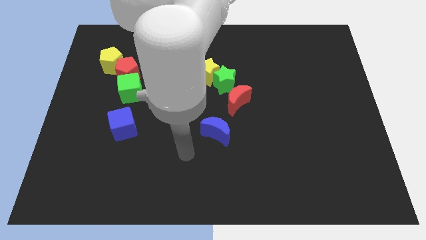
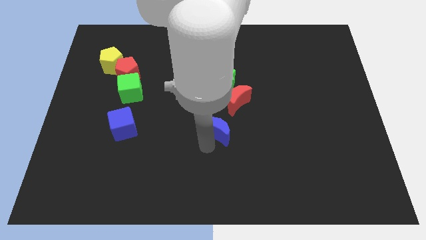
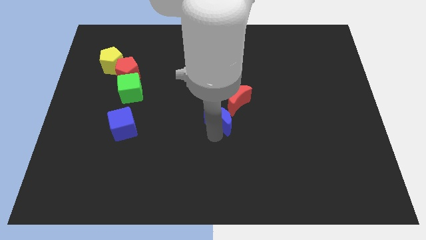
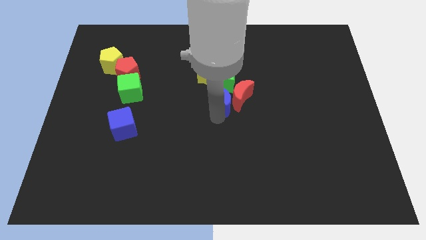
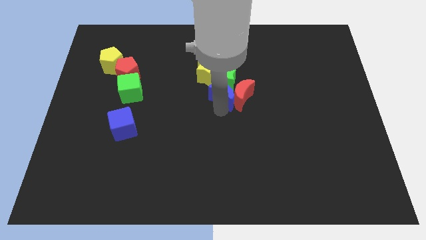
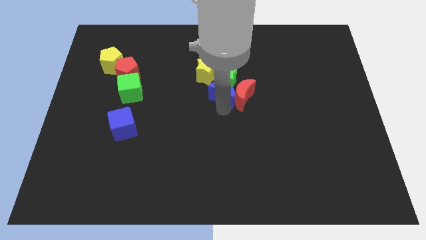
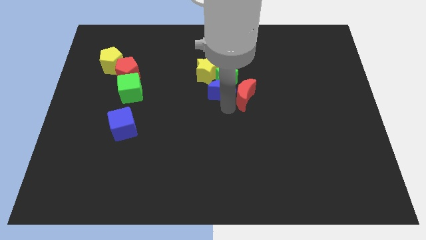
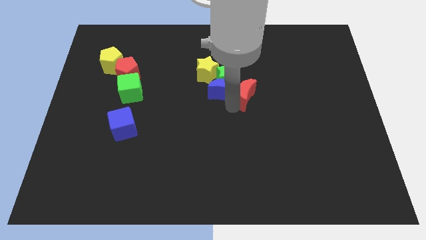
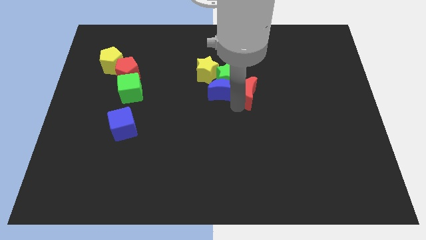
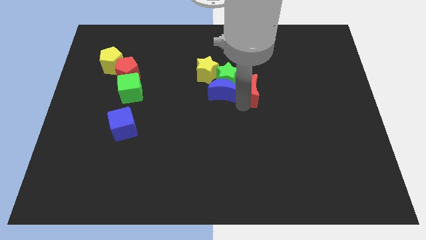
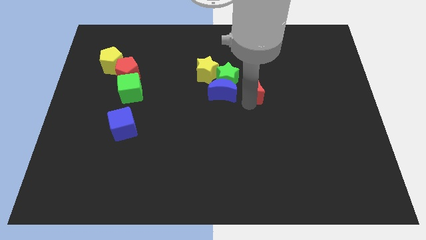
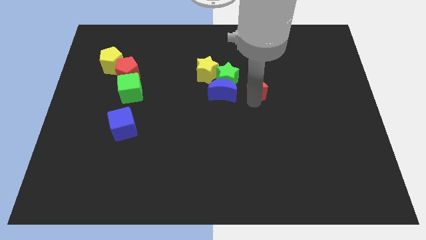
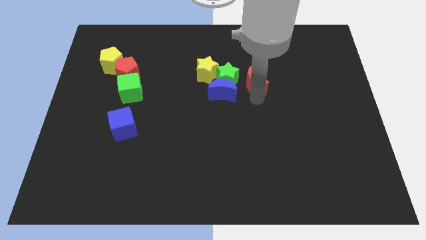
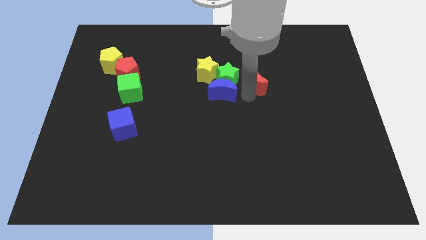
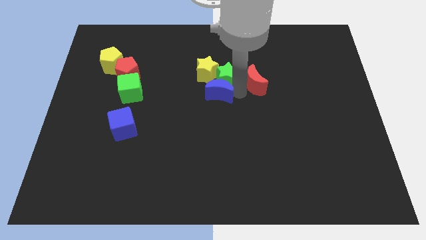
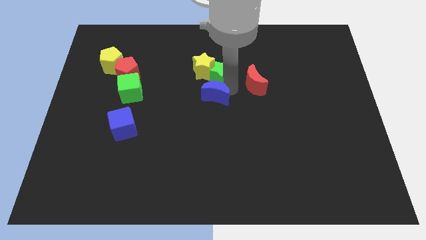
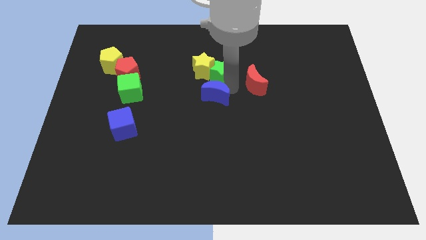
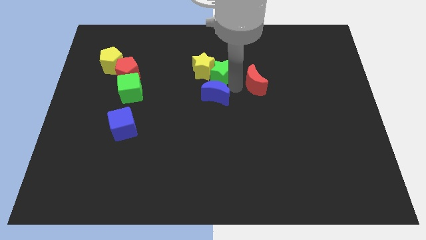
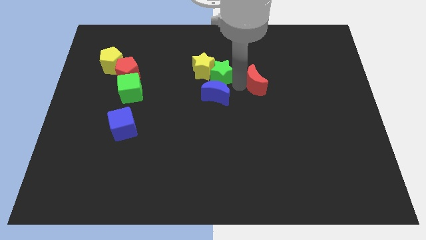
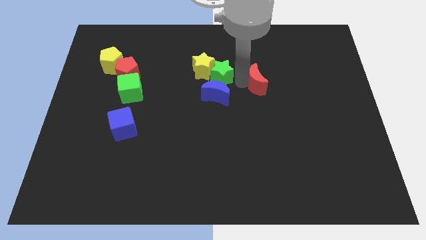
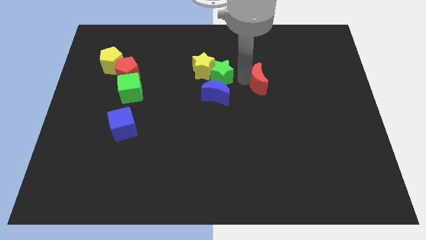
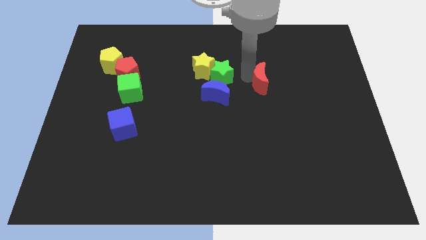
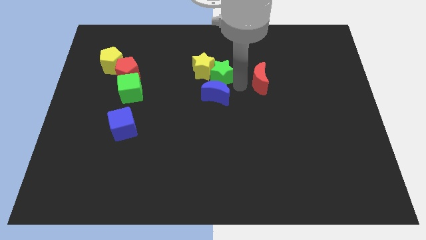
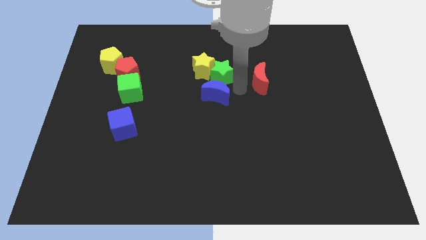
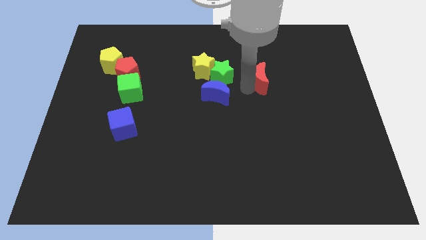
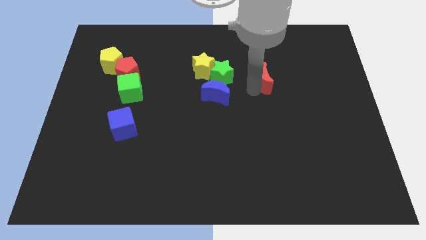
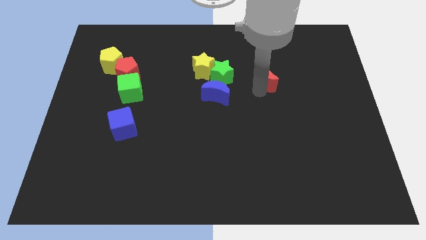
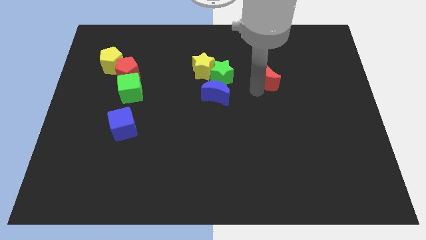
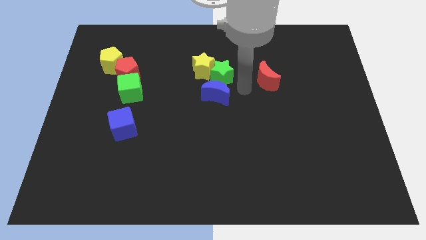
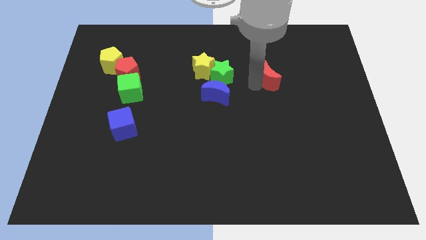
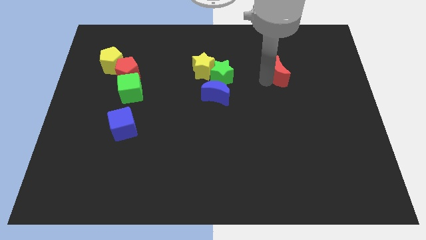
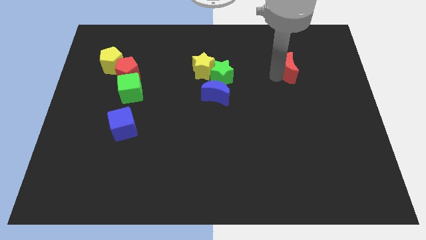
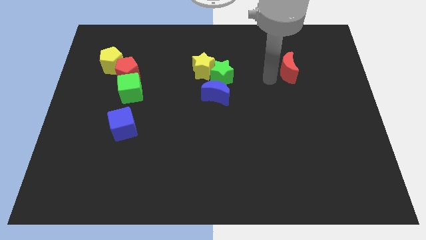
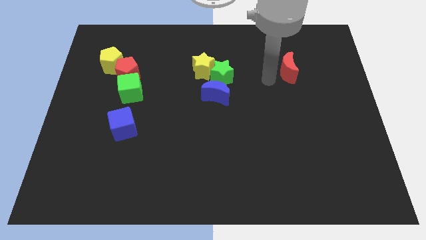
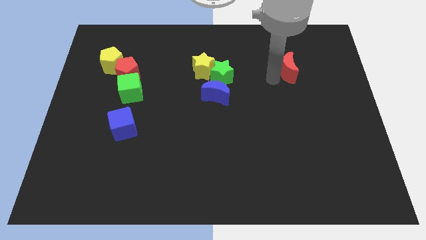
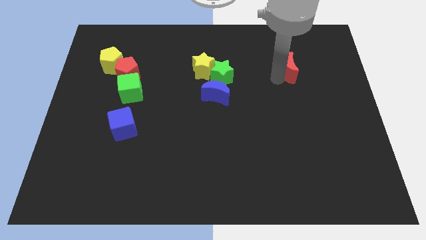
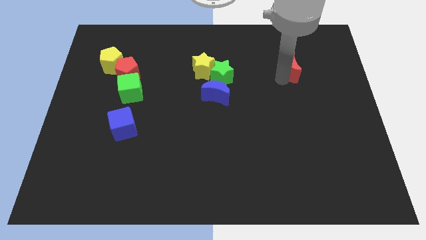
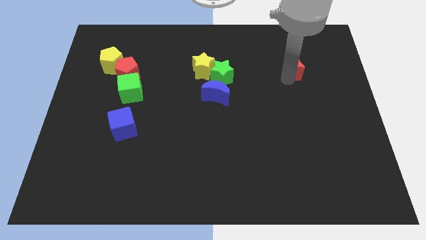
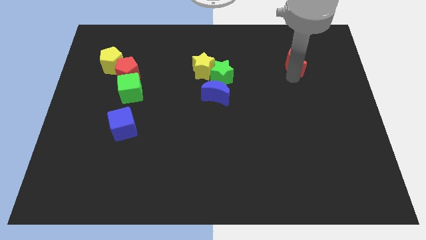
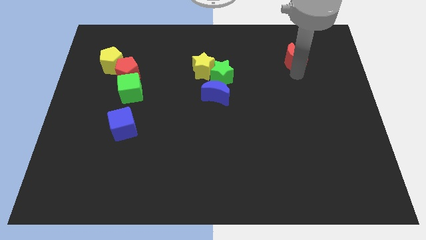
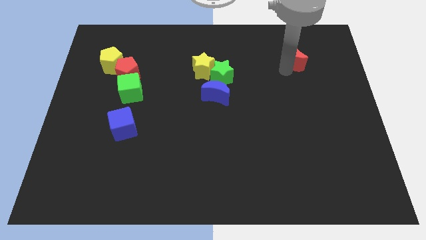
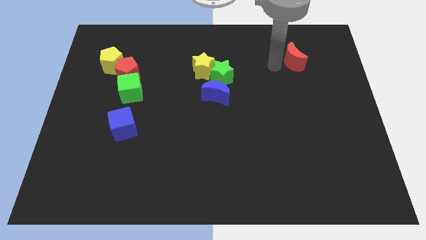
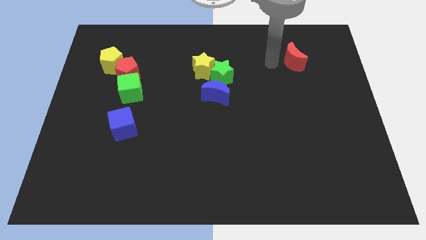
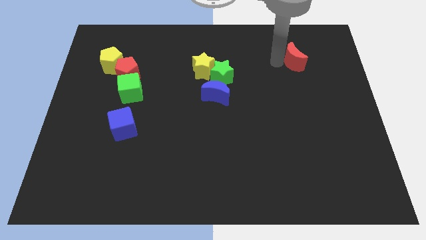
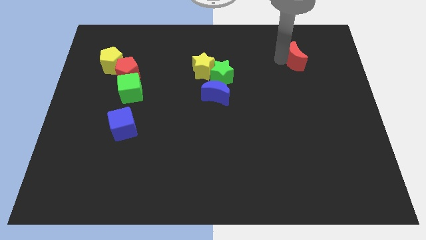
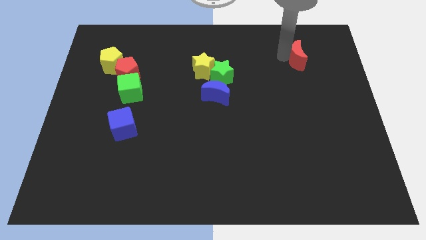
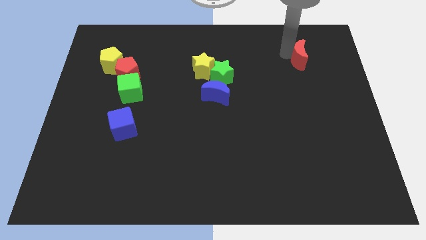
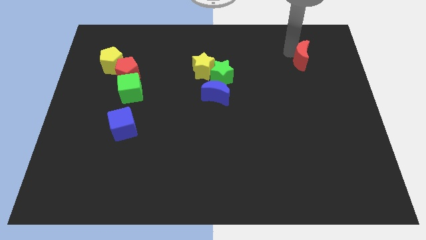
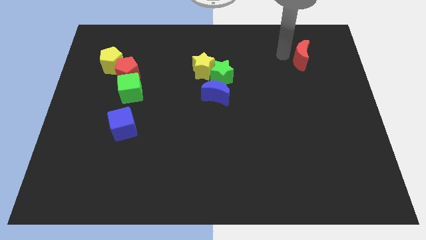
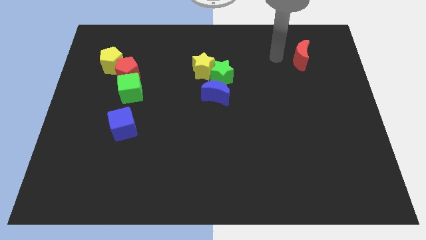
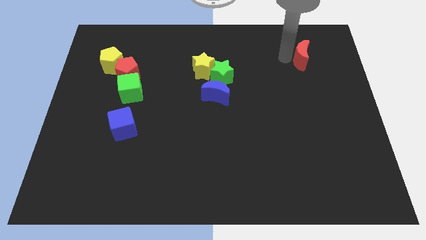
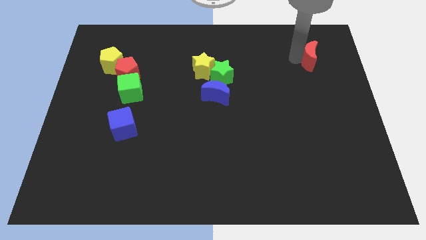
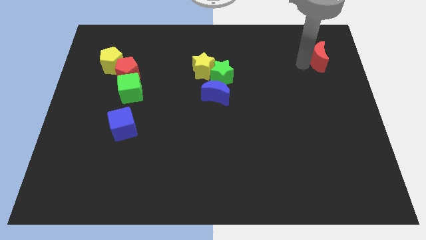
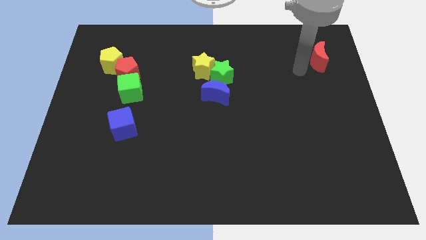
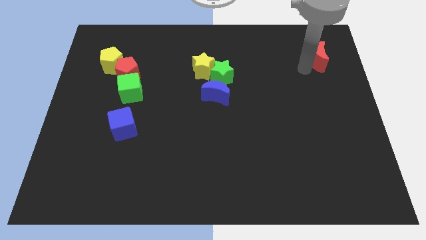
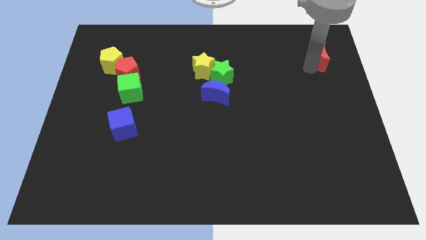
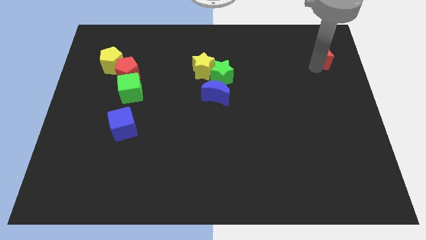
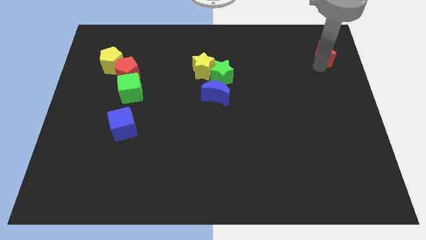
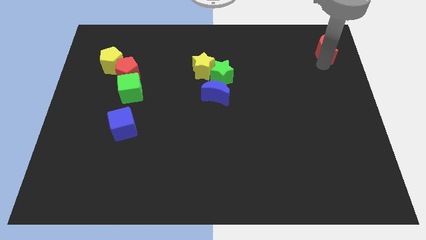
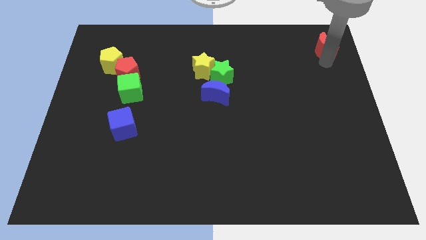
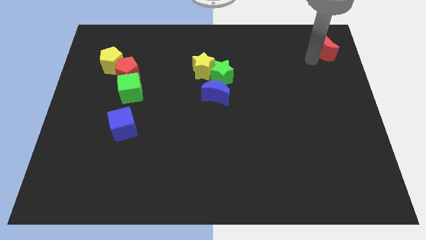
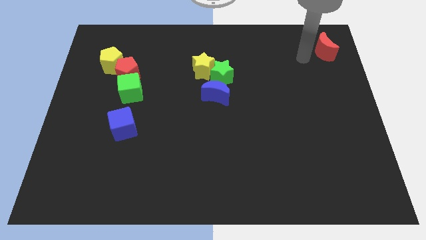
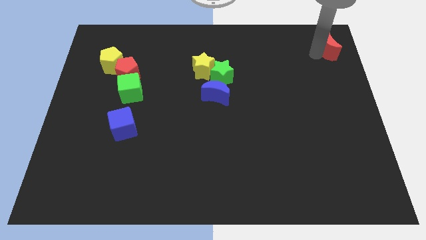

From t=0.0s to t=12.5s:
push the red moon to the top right corner
